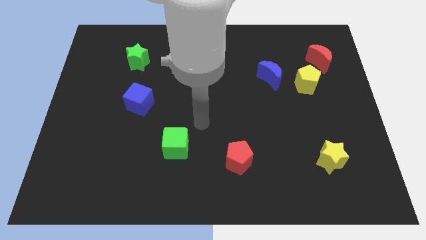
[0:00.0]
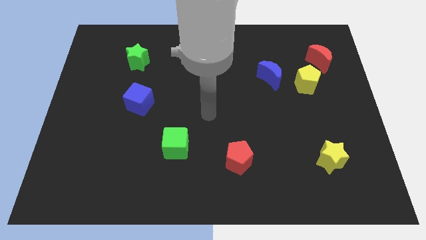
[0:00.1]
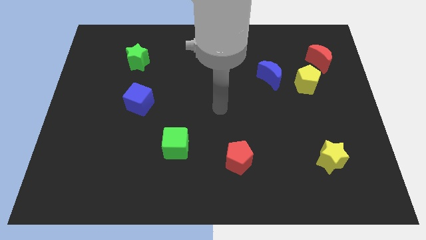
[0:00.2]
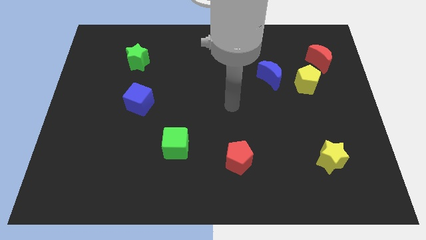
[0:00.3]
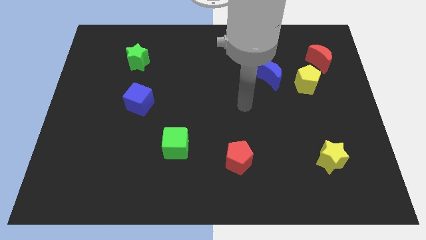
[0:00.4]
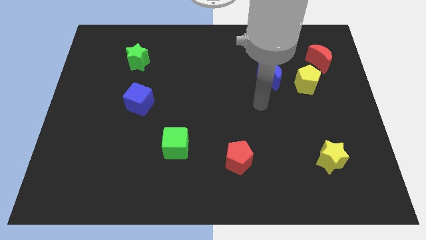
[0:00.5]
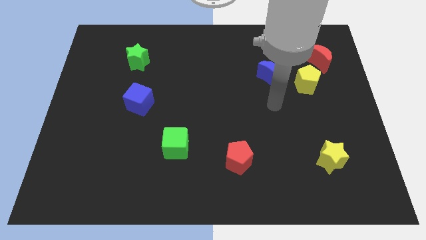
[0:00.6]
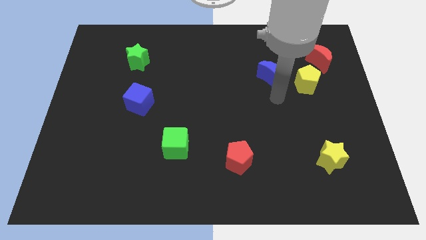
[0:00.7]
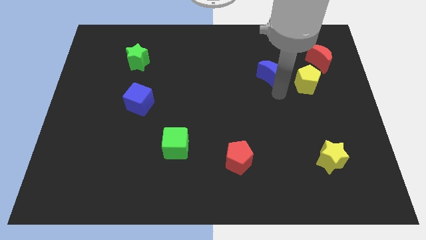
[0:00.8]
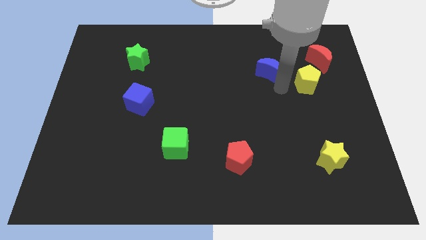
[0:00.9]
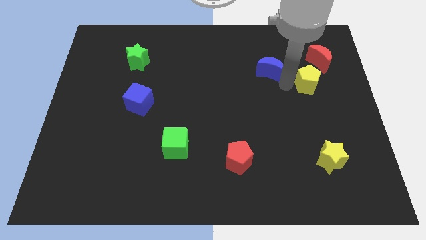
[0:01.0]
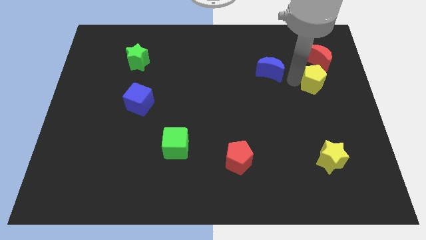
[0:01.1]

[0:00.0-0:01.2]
pull the blue moon apart from the yellow pentagon

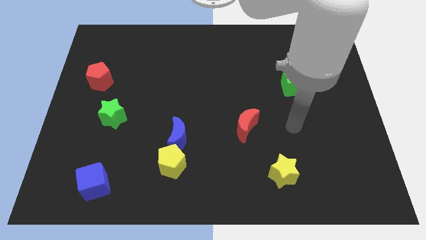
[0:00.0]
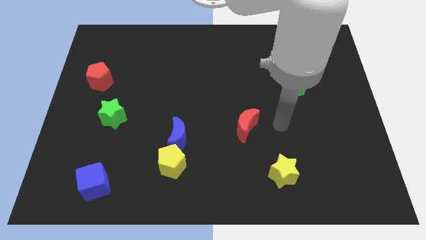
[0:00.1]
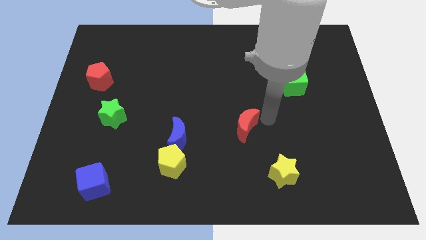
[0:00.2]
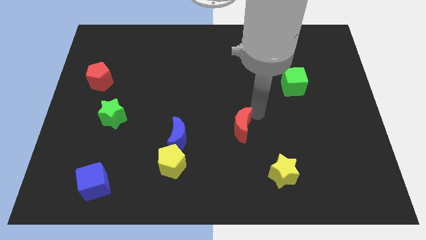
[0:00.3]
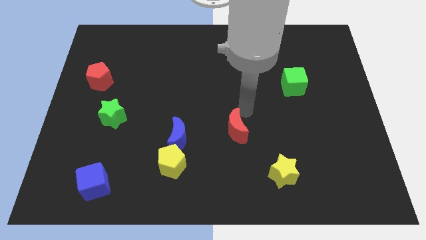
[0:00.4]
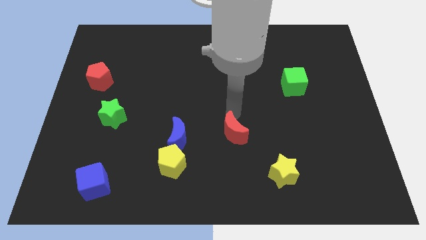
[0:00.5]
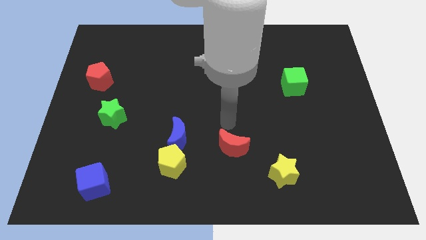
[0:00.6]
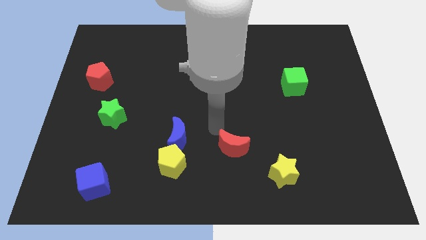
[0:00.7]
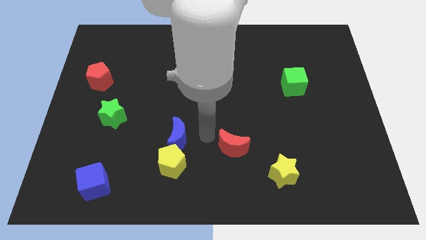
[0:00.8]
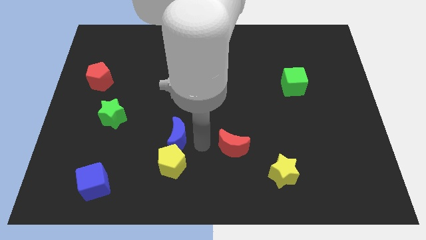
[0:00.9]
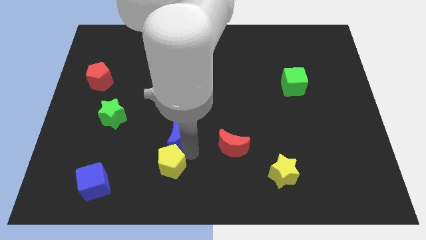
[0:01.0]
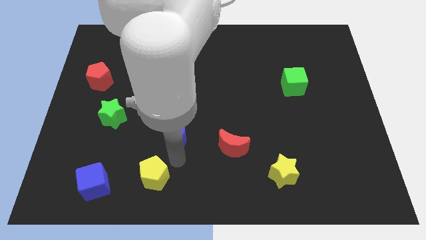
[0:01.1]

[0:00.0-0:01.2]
separate the blue moon from the yellow pentagon

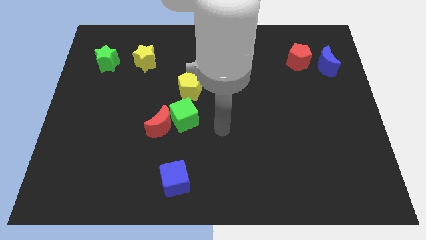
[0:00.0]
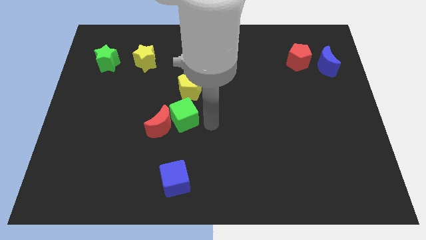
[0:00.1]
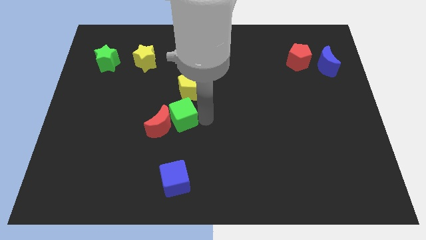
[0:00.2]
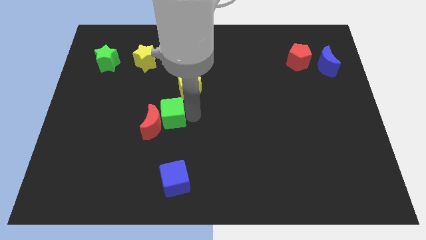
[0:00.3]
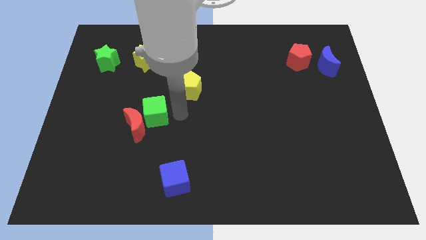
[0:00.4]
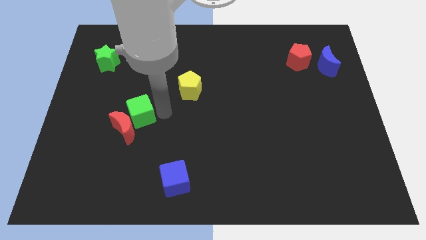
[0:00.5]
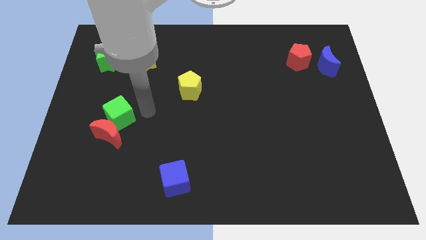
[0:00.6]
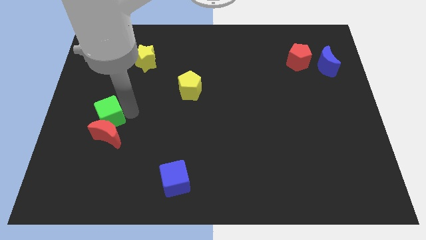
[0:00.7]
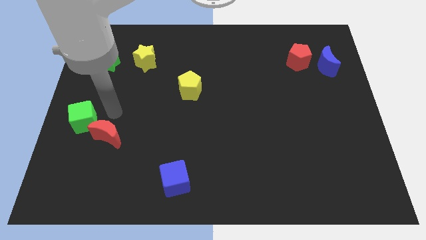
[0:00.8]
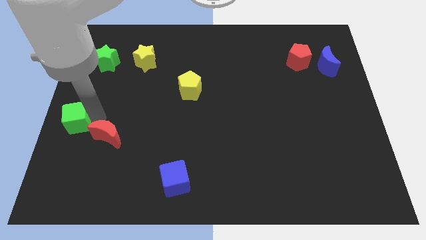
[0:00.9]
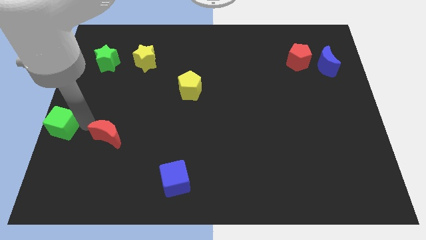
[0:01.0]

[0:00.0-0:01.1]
separate the red moon from the green cube

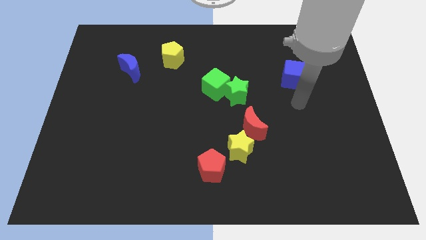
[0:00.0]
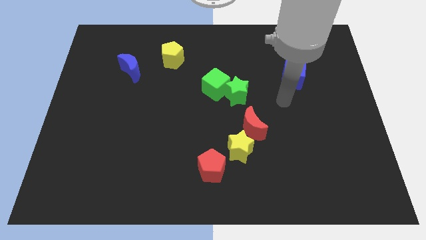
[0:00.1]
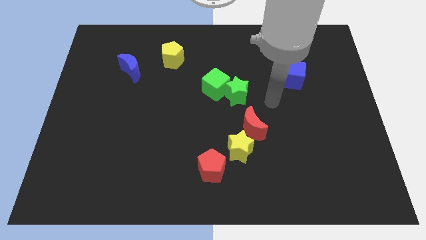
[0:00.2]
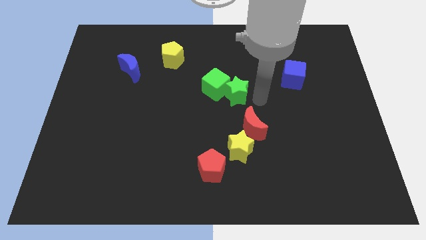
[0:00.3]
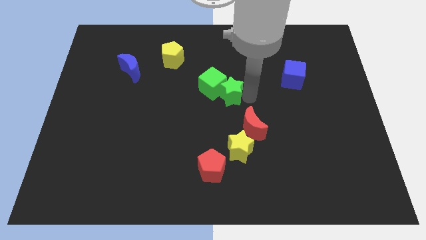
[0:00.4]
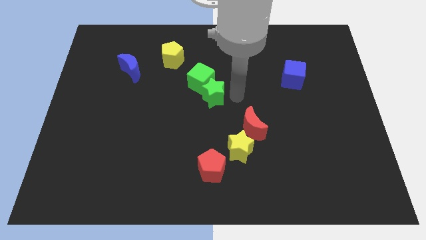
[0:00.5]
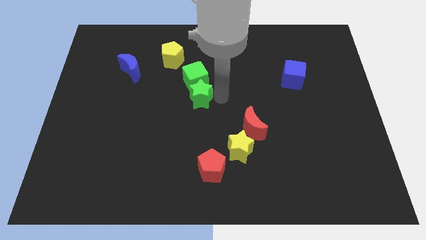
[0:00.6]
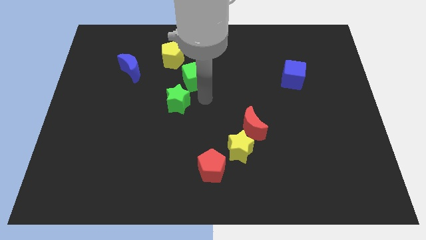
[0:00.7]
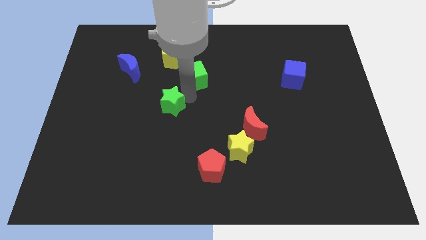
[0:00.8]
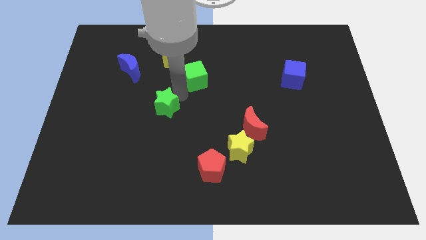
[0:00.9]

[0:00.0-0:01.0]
move the green cube away from the green star

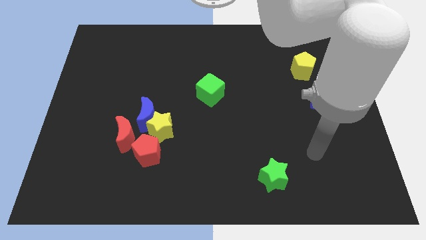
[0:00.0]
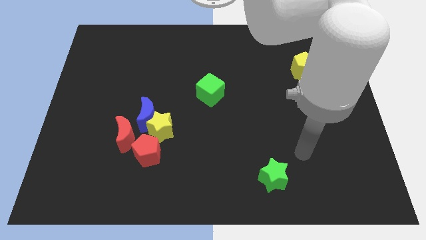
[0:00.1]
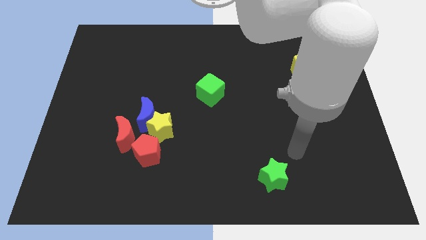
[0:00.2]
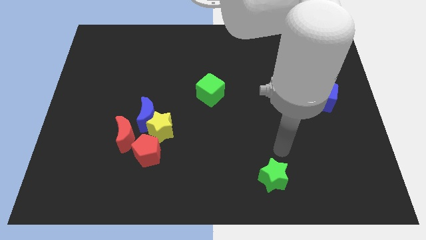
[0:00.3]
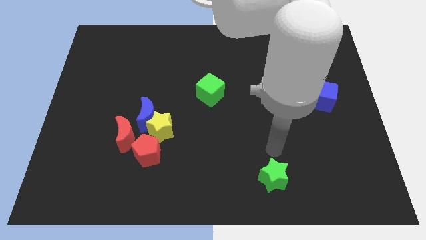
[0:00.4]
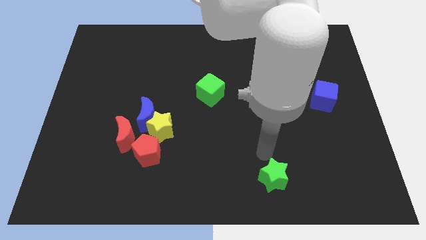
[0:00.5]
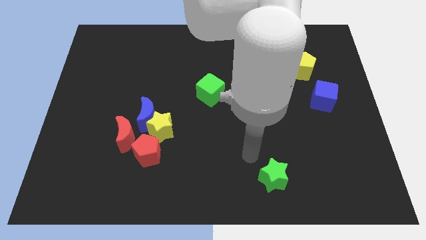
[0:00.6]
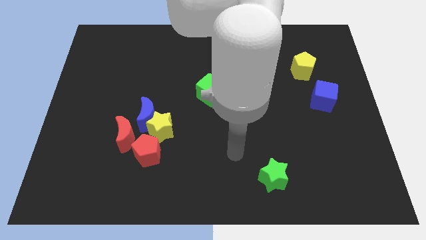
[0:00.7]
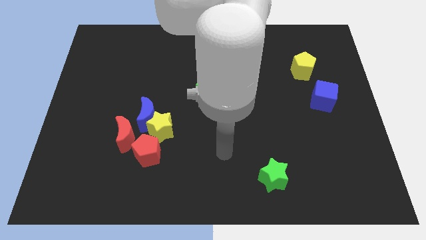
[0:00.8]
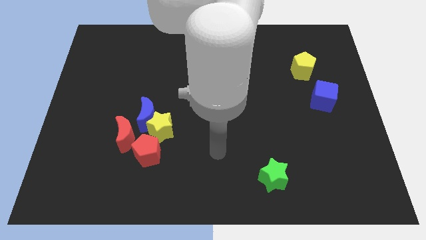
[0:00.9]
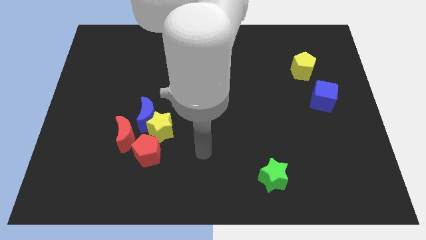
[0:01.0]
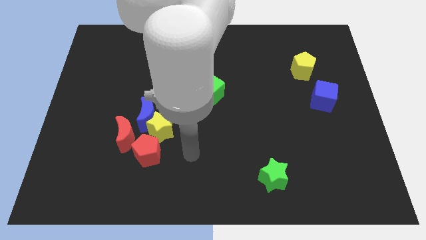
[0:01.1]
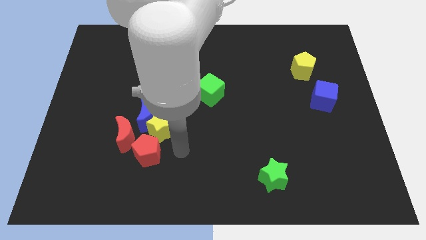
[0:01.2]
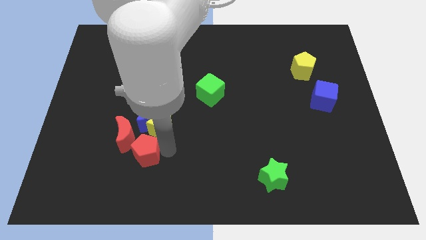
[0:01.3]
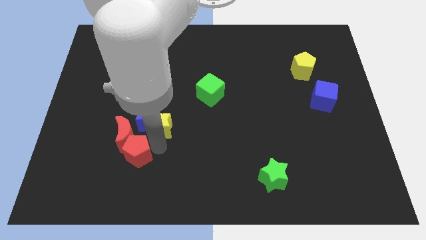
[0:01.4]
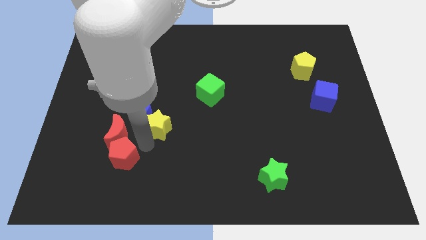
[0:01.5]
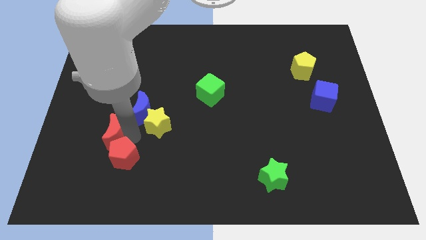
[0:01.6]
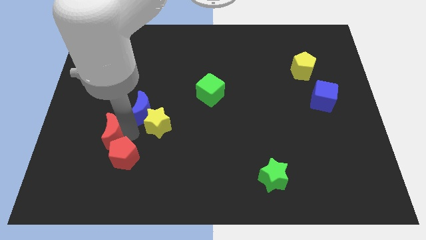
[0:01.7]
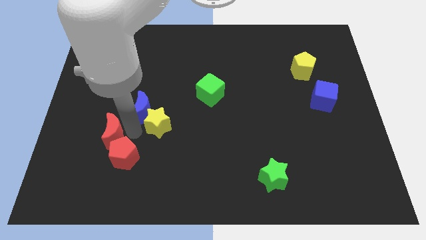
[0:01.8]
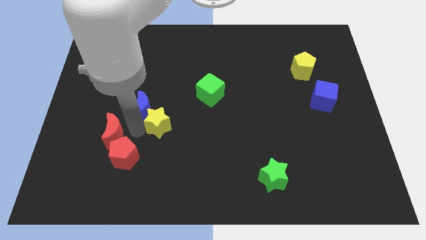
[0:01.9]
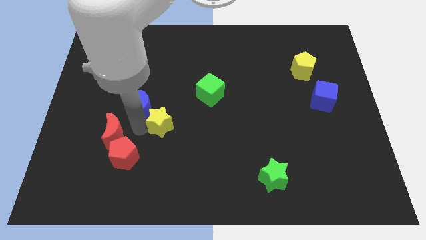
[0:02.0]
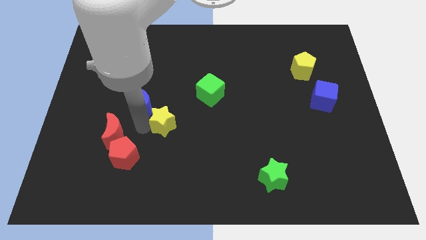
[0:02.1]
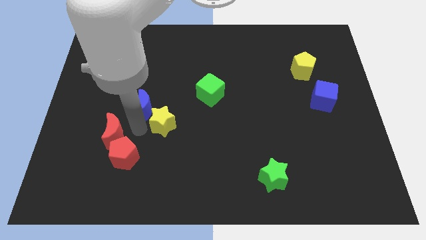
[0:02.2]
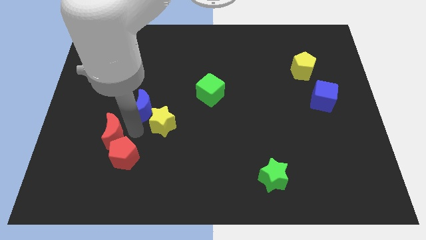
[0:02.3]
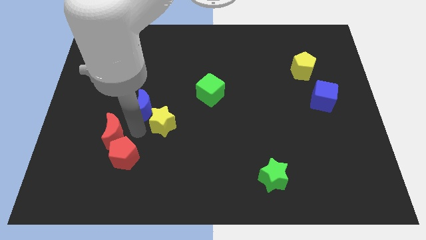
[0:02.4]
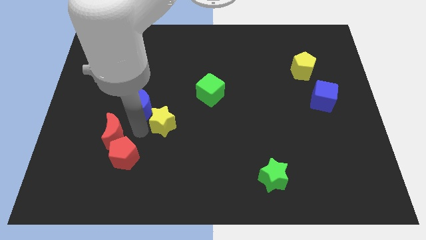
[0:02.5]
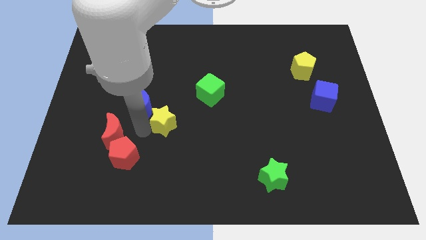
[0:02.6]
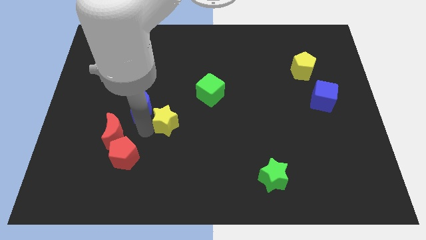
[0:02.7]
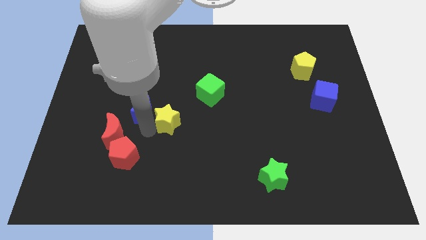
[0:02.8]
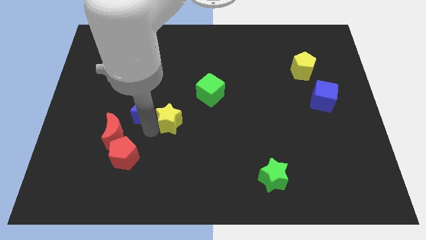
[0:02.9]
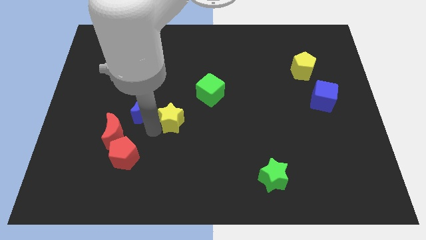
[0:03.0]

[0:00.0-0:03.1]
separate the yellow star from the group of blocks

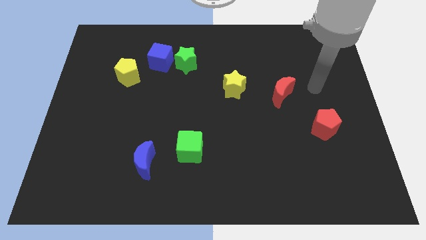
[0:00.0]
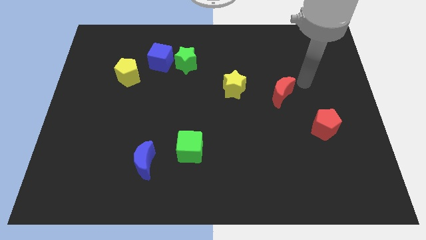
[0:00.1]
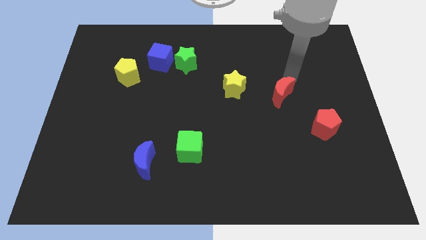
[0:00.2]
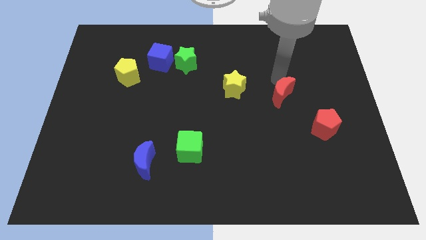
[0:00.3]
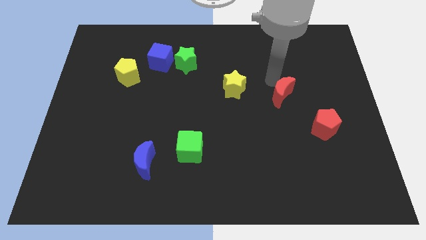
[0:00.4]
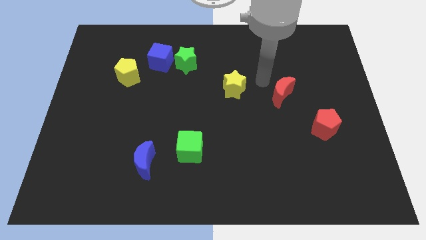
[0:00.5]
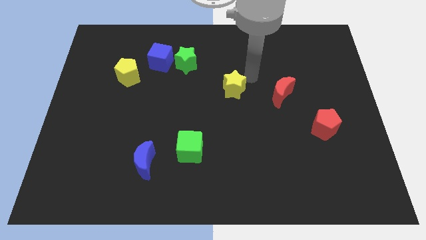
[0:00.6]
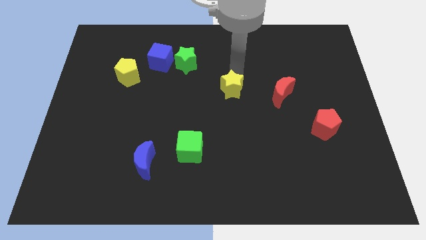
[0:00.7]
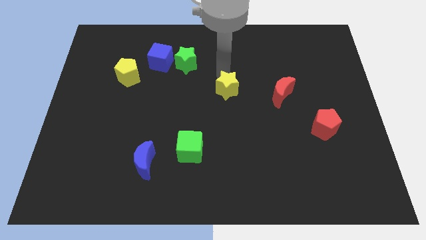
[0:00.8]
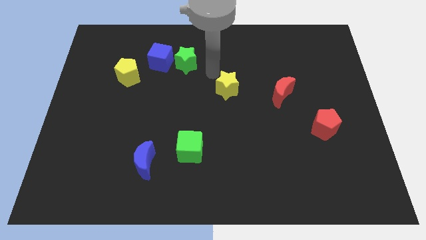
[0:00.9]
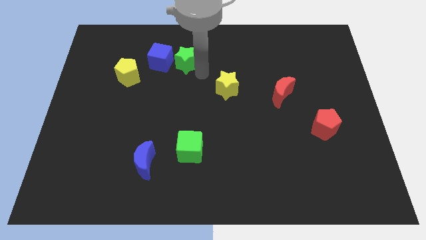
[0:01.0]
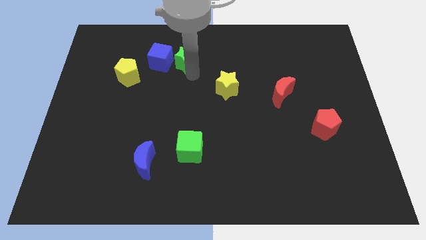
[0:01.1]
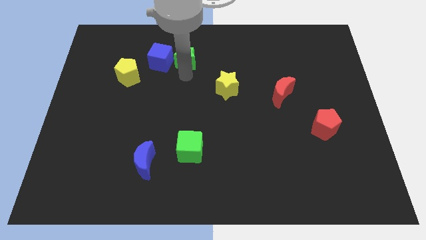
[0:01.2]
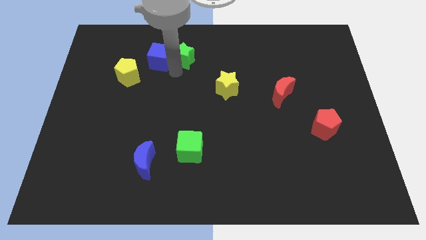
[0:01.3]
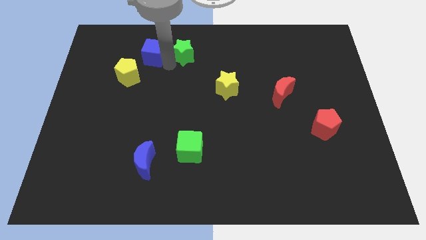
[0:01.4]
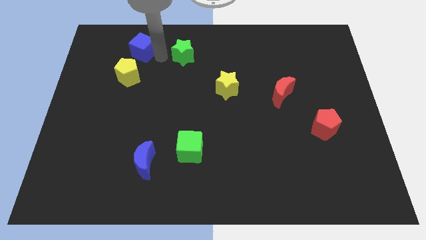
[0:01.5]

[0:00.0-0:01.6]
separate the green star from the blue cube
